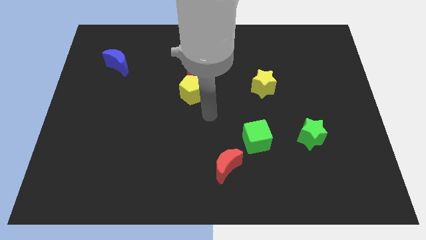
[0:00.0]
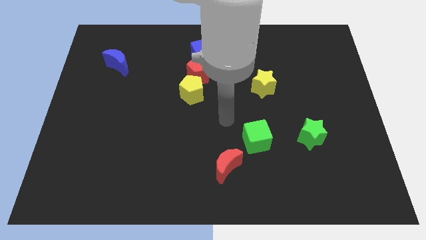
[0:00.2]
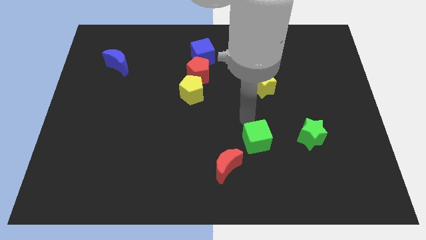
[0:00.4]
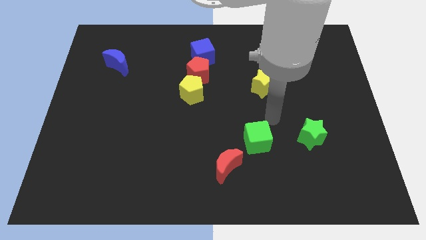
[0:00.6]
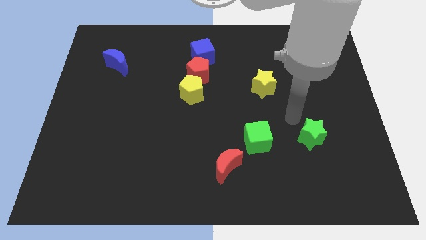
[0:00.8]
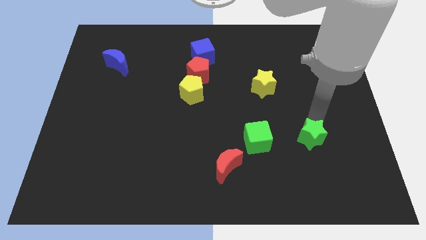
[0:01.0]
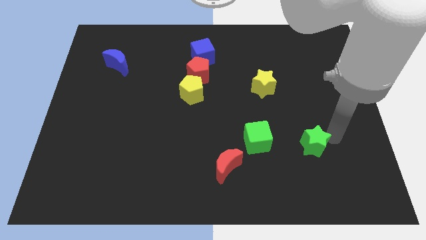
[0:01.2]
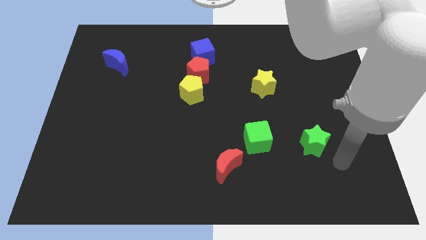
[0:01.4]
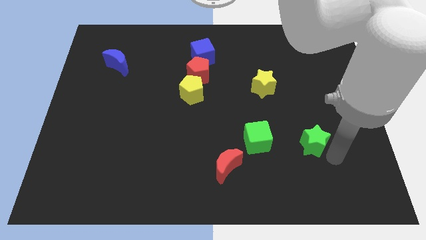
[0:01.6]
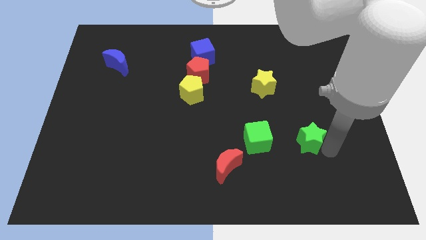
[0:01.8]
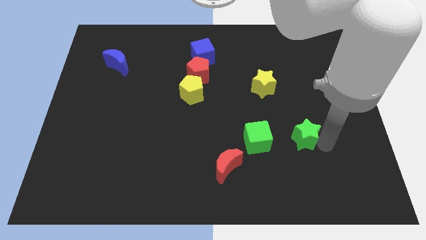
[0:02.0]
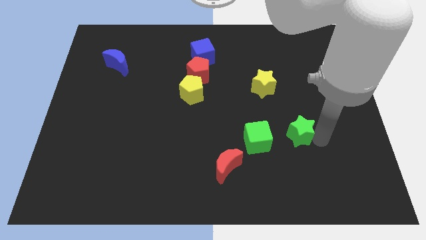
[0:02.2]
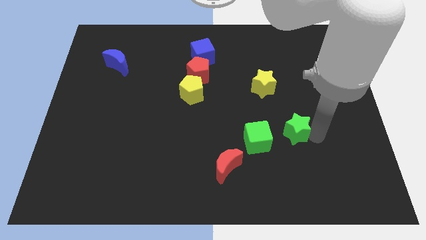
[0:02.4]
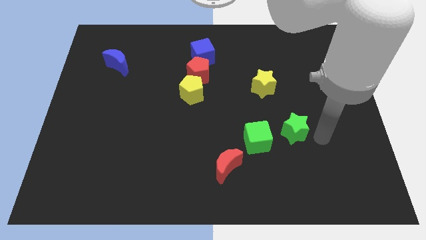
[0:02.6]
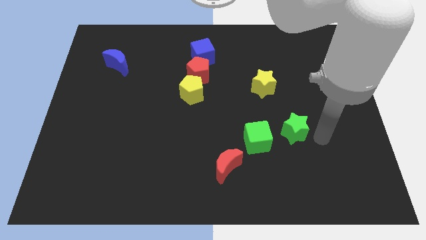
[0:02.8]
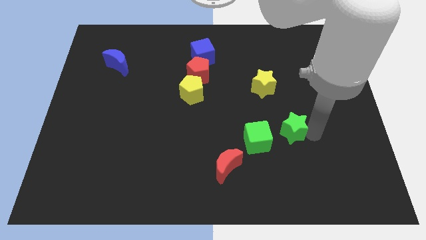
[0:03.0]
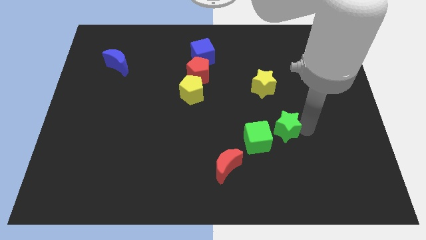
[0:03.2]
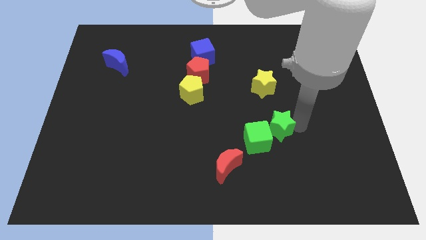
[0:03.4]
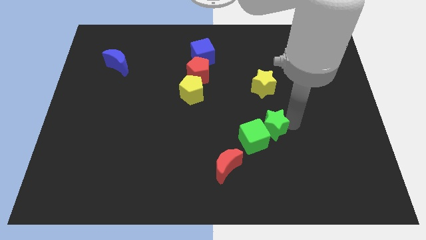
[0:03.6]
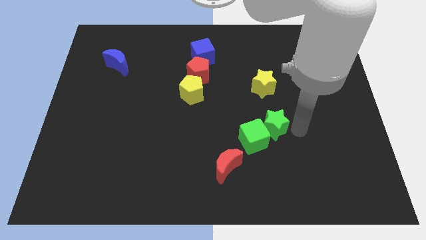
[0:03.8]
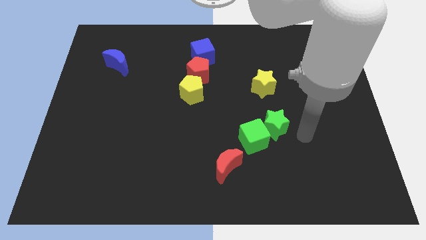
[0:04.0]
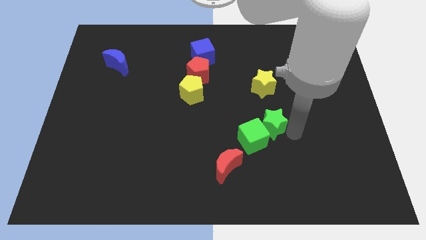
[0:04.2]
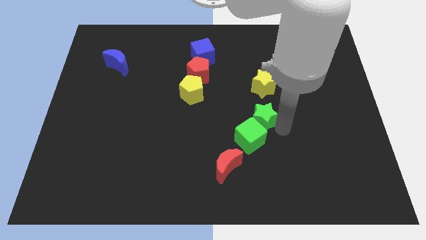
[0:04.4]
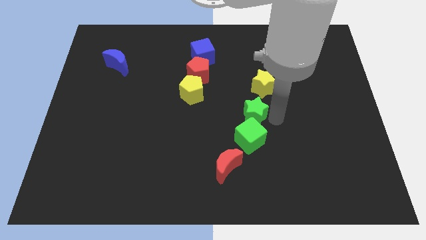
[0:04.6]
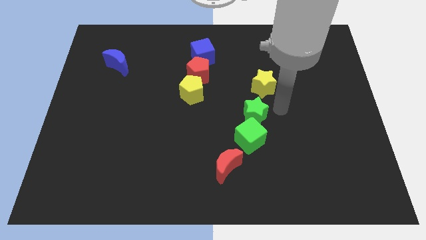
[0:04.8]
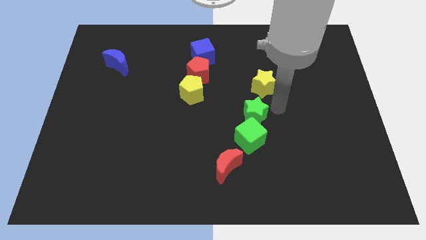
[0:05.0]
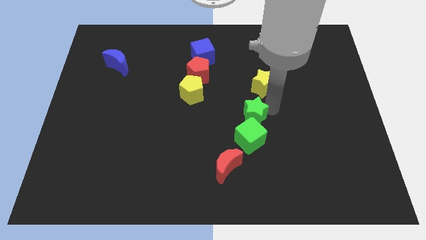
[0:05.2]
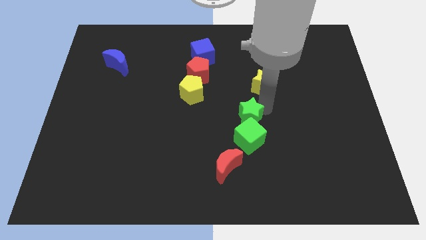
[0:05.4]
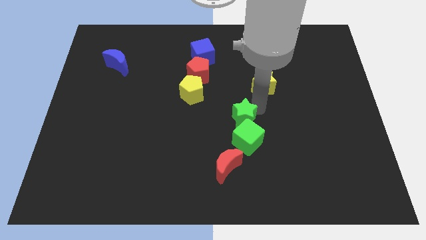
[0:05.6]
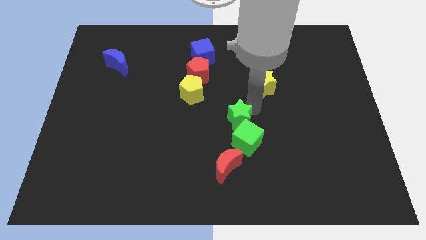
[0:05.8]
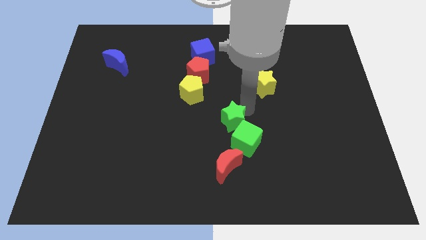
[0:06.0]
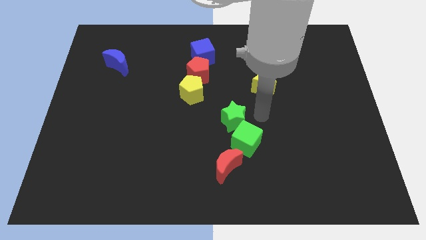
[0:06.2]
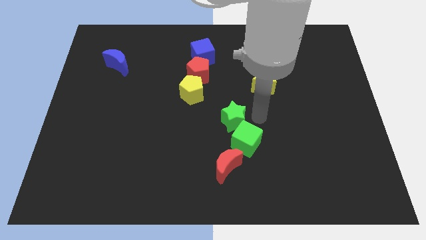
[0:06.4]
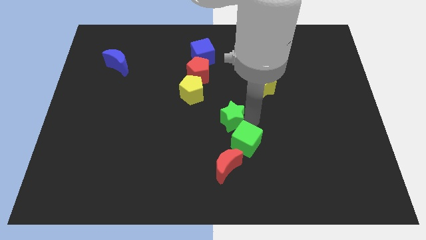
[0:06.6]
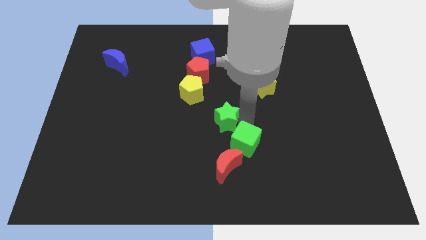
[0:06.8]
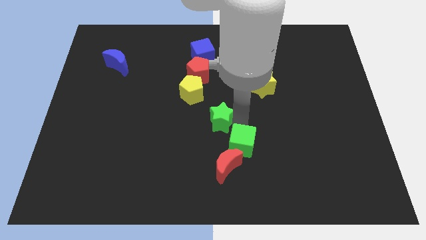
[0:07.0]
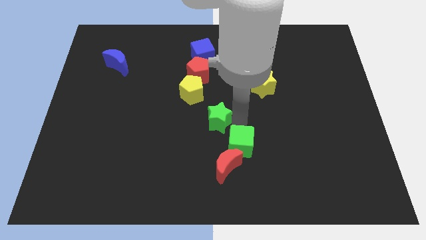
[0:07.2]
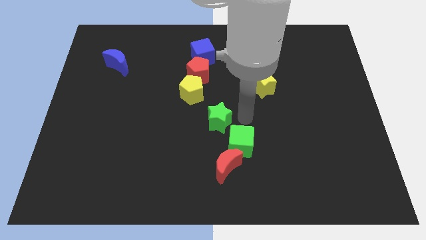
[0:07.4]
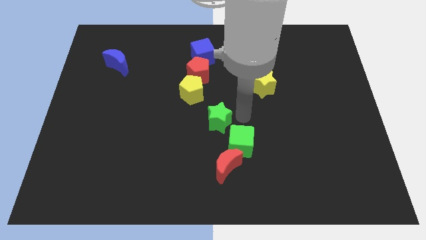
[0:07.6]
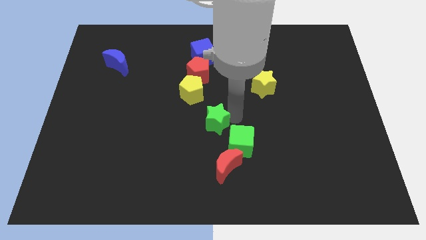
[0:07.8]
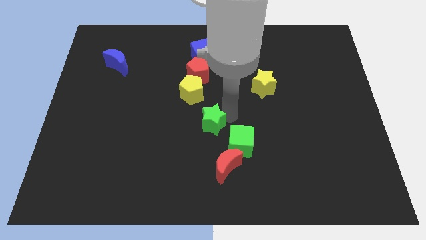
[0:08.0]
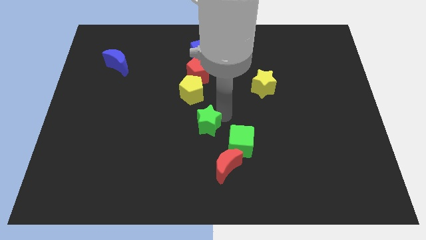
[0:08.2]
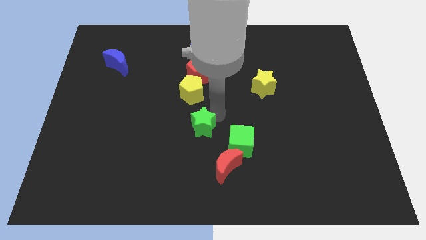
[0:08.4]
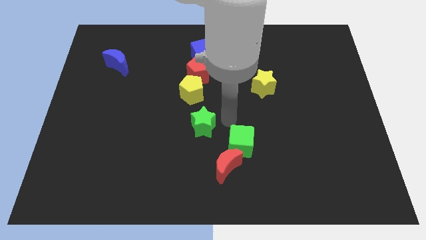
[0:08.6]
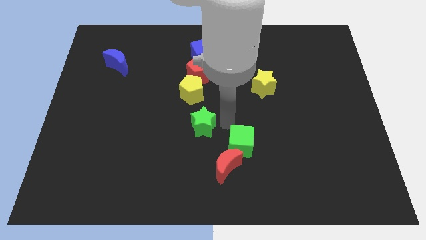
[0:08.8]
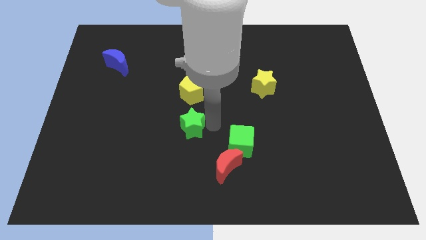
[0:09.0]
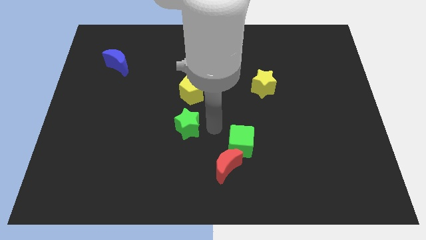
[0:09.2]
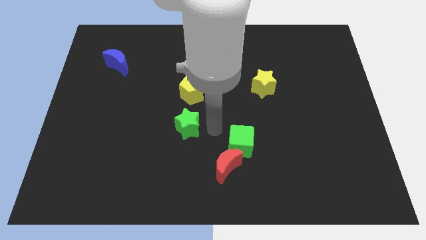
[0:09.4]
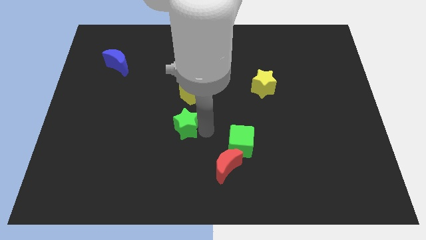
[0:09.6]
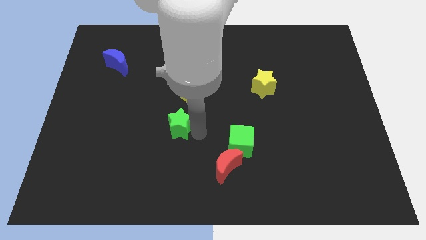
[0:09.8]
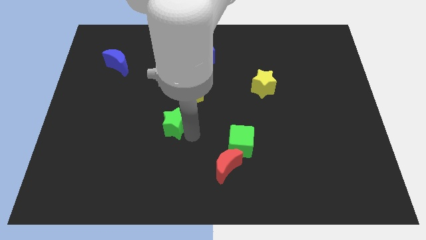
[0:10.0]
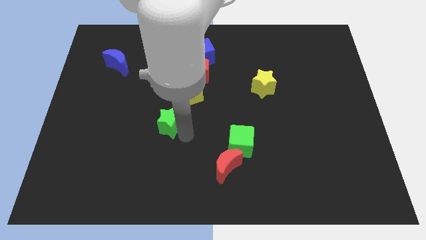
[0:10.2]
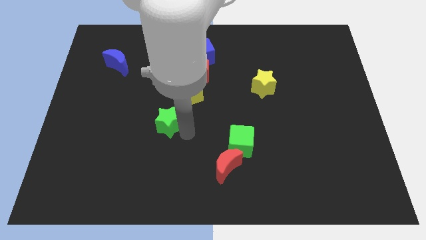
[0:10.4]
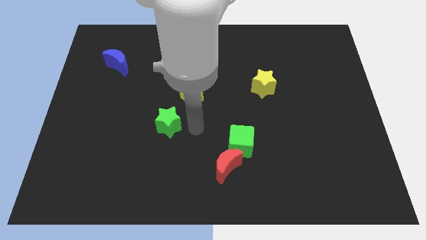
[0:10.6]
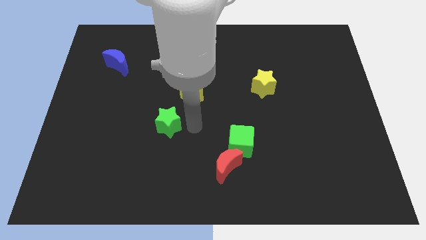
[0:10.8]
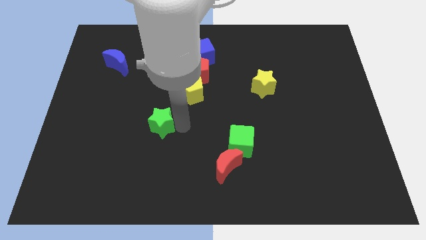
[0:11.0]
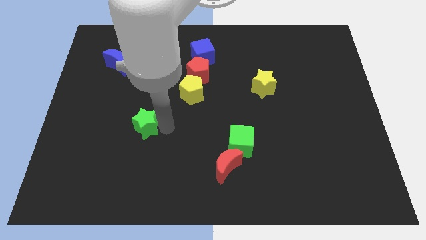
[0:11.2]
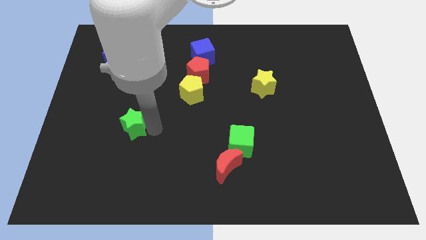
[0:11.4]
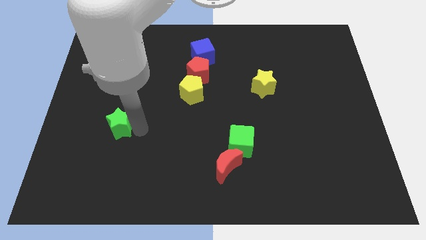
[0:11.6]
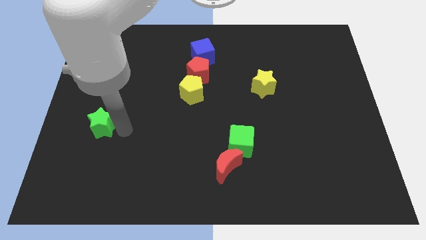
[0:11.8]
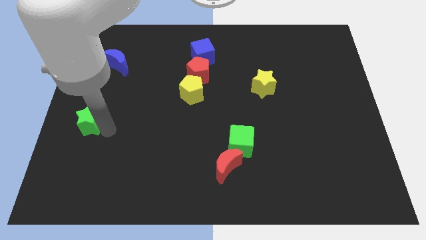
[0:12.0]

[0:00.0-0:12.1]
push the green star to the left side of the board
